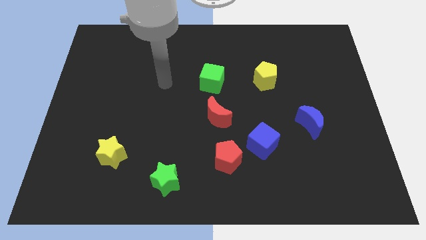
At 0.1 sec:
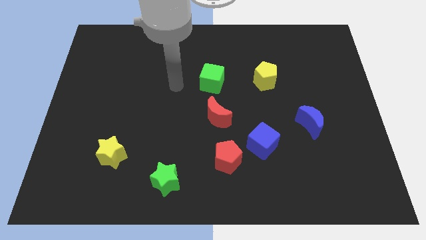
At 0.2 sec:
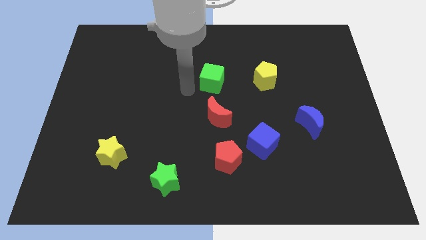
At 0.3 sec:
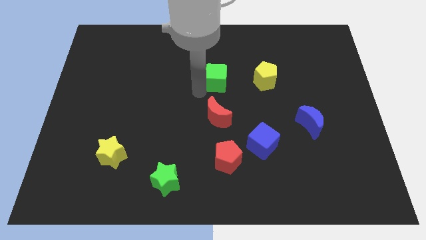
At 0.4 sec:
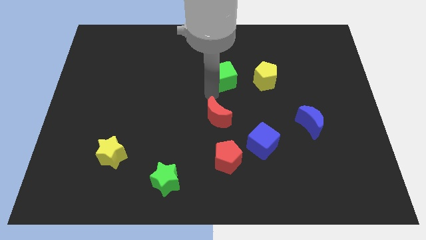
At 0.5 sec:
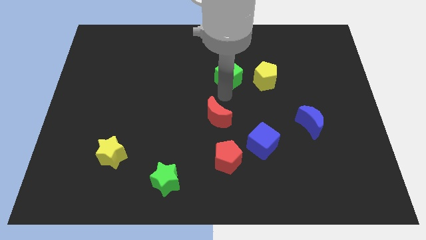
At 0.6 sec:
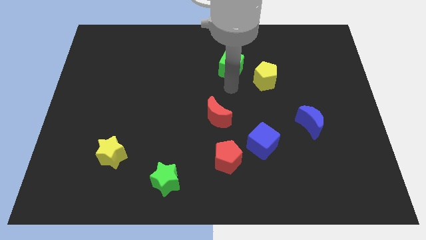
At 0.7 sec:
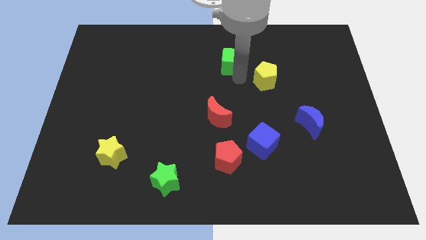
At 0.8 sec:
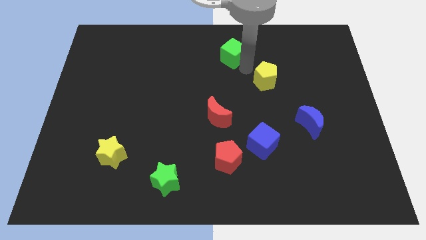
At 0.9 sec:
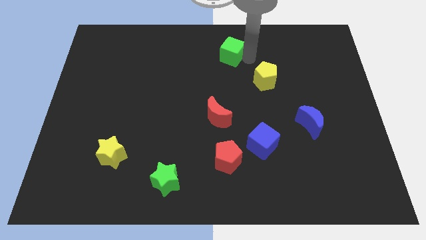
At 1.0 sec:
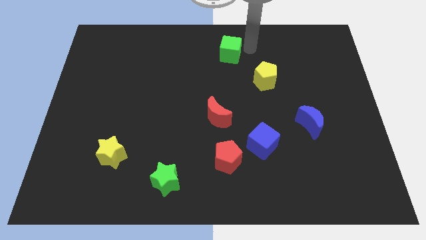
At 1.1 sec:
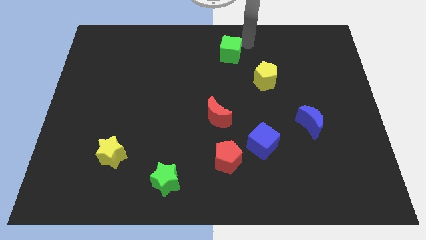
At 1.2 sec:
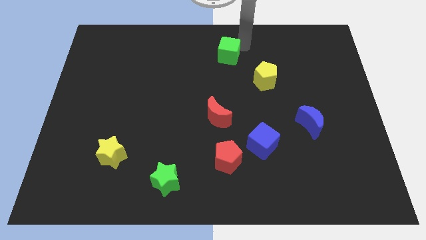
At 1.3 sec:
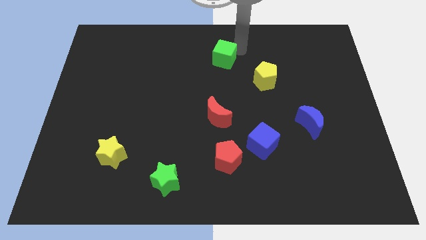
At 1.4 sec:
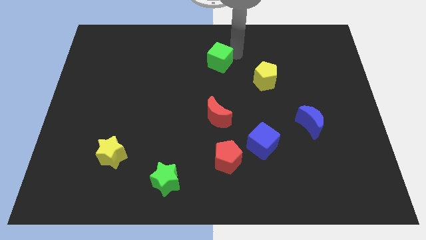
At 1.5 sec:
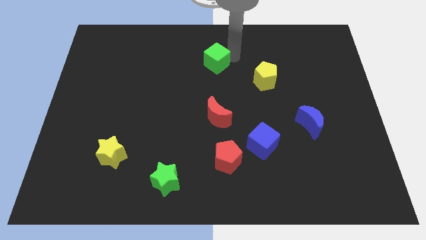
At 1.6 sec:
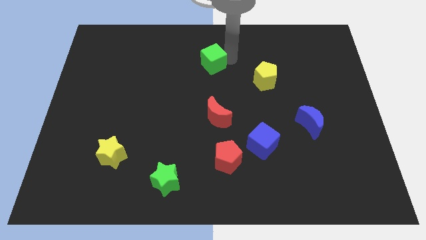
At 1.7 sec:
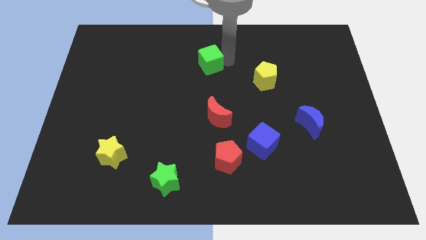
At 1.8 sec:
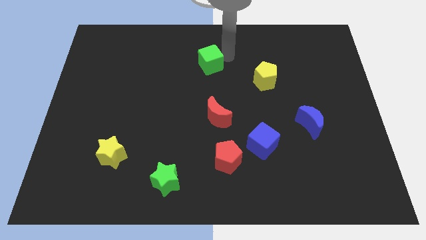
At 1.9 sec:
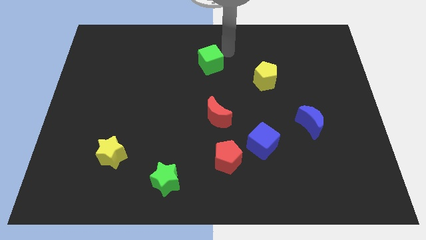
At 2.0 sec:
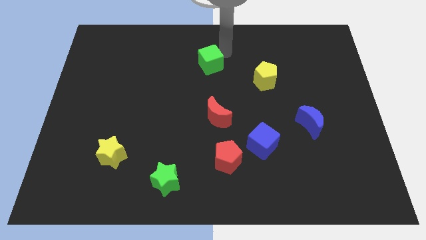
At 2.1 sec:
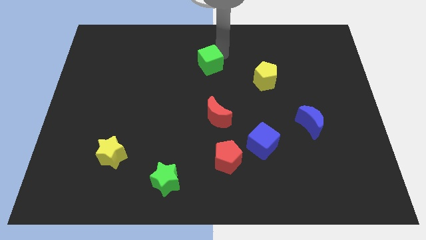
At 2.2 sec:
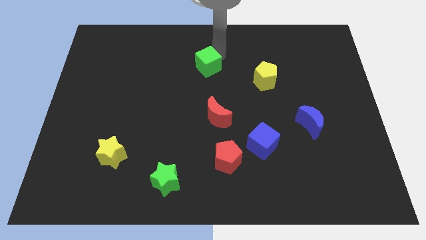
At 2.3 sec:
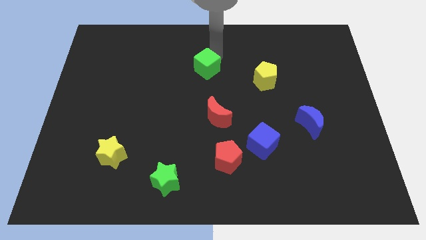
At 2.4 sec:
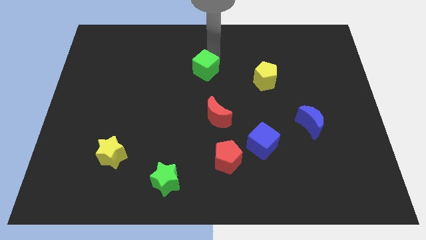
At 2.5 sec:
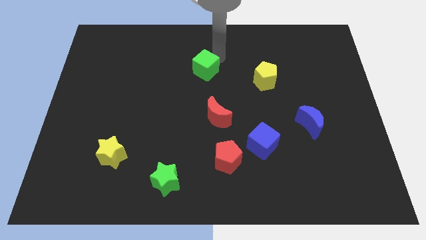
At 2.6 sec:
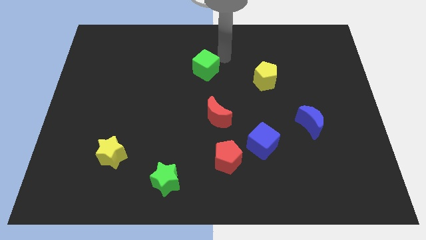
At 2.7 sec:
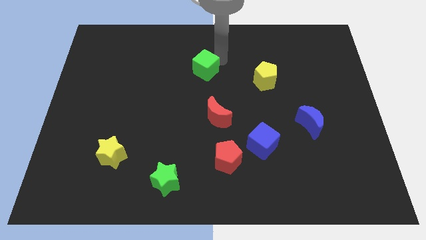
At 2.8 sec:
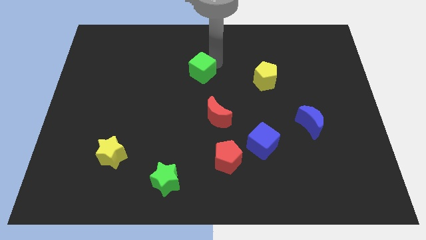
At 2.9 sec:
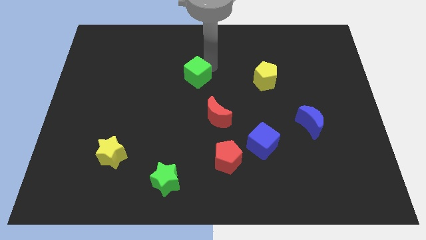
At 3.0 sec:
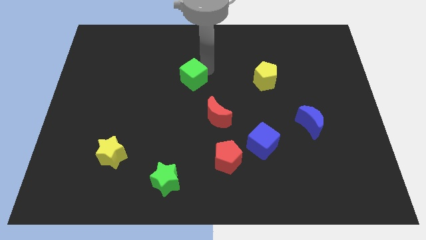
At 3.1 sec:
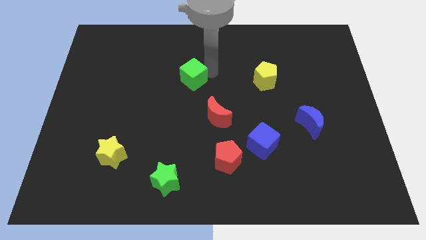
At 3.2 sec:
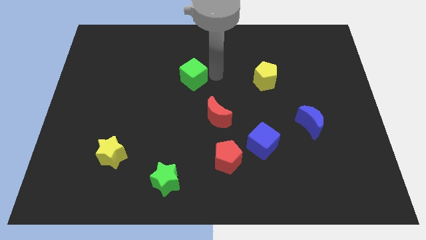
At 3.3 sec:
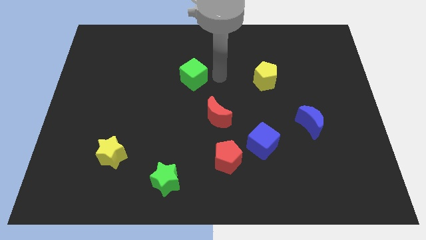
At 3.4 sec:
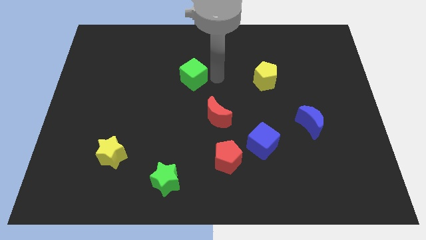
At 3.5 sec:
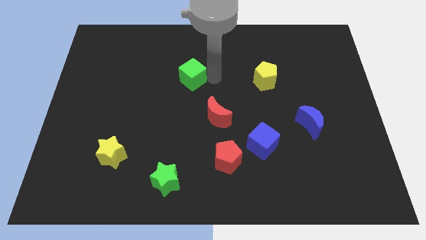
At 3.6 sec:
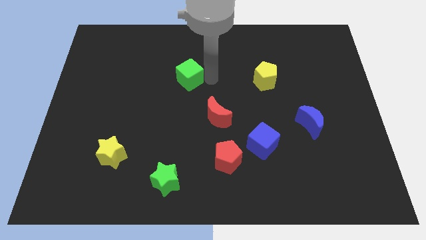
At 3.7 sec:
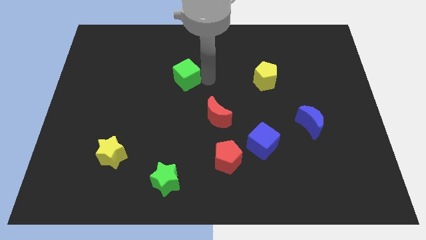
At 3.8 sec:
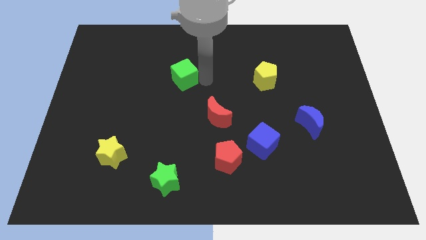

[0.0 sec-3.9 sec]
push the green cube a little left

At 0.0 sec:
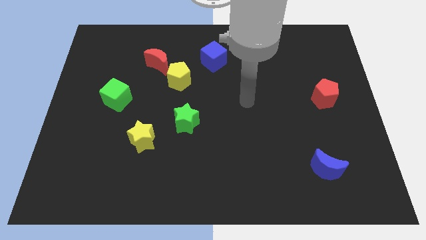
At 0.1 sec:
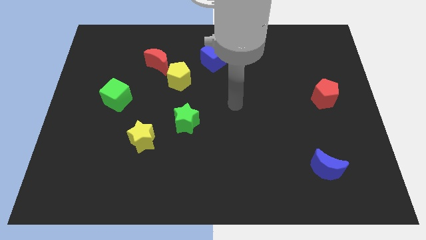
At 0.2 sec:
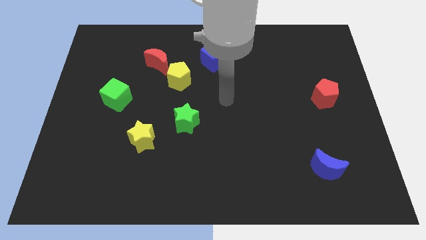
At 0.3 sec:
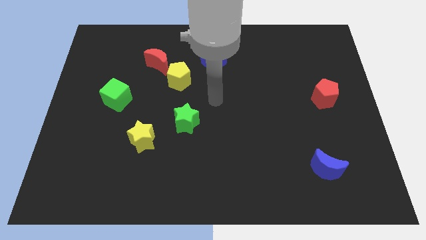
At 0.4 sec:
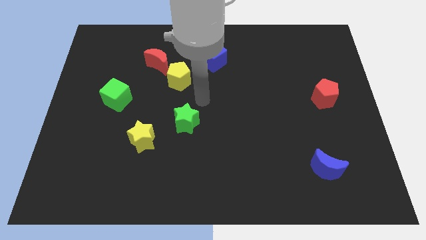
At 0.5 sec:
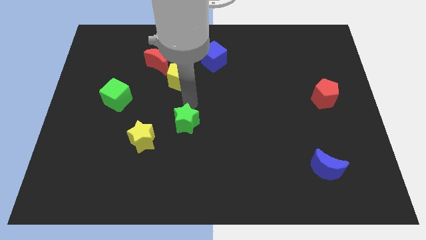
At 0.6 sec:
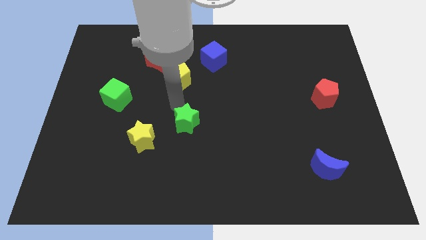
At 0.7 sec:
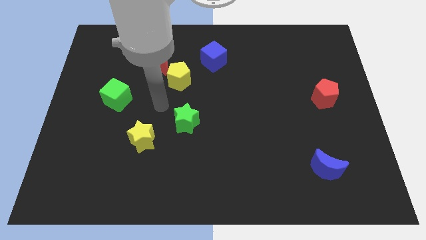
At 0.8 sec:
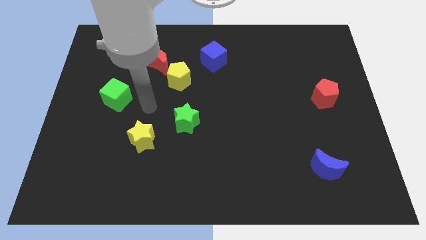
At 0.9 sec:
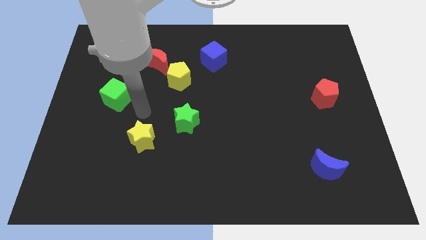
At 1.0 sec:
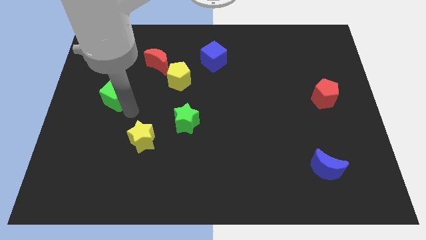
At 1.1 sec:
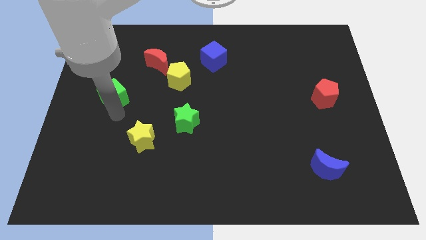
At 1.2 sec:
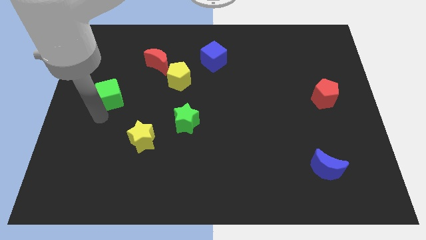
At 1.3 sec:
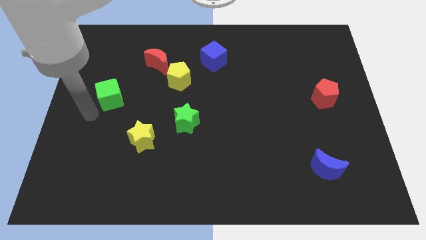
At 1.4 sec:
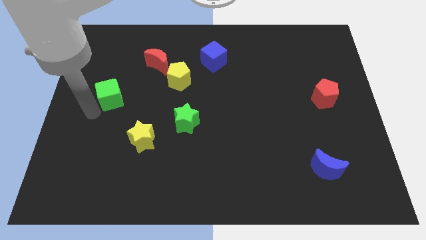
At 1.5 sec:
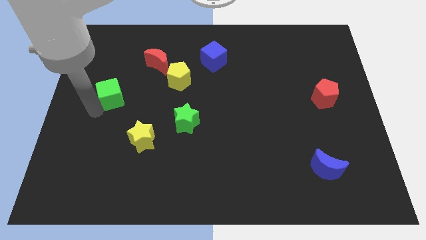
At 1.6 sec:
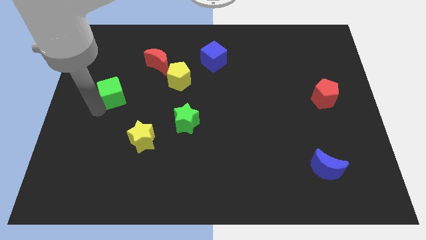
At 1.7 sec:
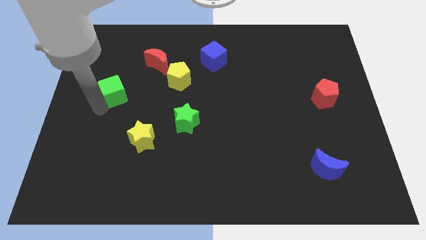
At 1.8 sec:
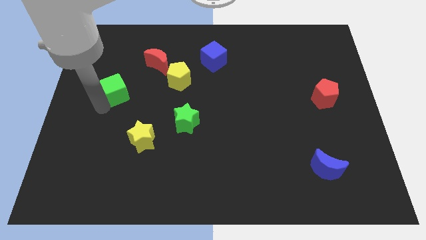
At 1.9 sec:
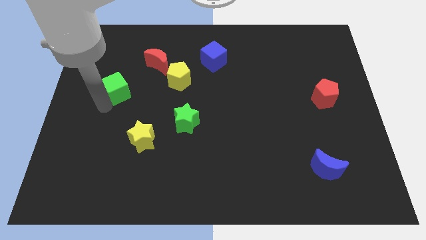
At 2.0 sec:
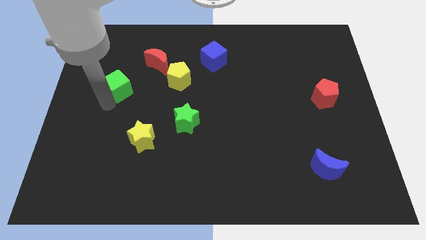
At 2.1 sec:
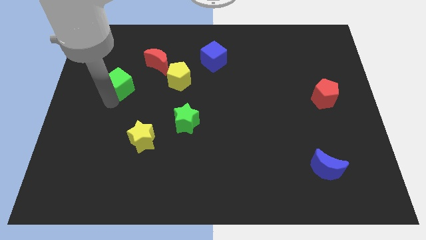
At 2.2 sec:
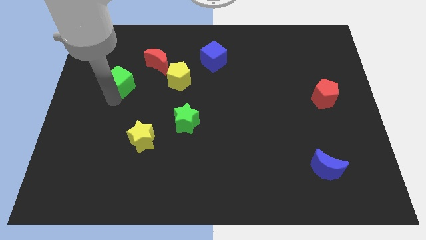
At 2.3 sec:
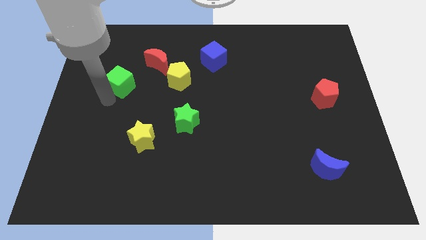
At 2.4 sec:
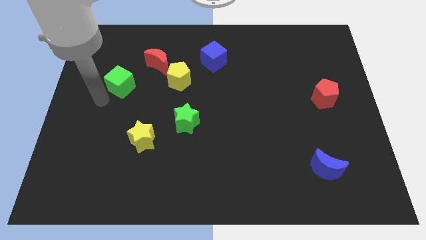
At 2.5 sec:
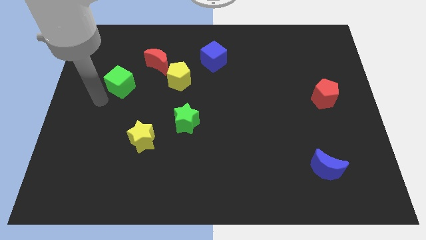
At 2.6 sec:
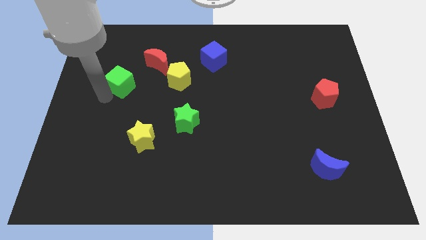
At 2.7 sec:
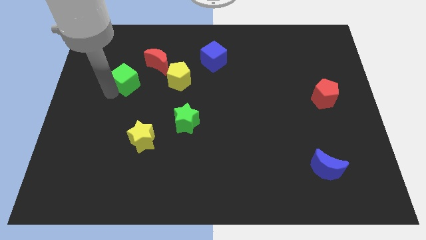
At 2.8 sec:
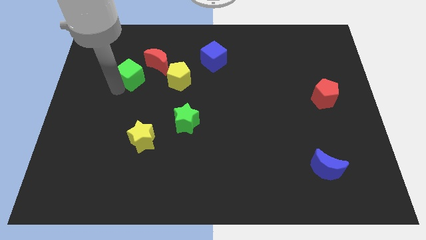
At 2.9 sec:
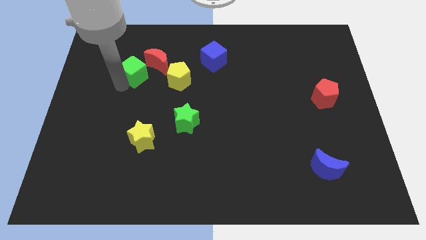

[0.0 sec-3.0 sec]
slightly slide the green cube up and right diagonally

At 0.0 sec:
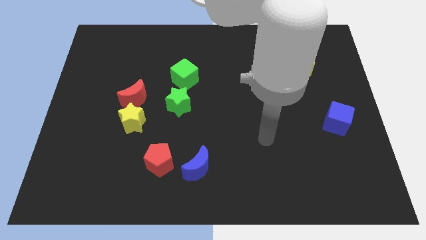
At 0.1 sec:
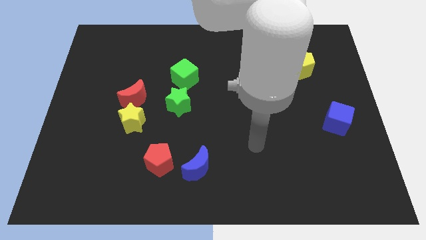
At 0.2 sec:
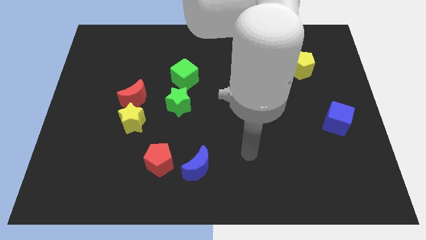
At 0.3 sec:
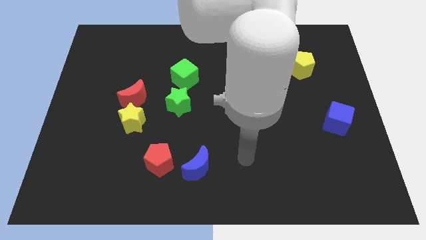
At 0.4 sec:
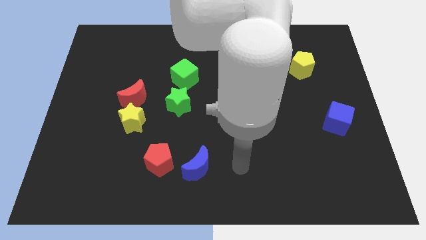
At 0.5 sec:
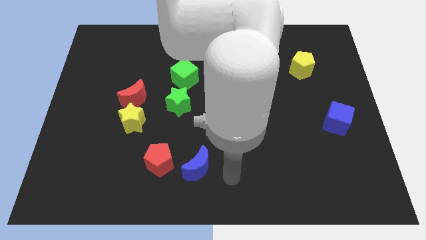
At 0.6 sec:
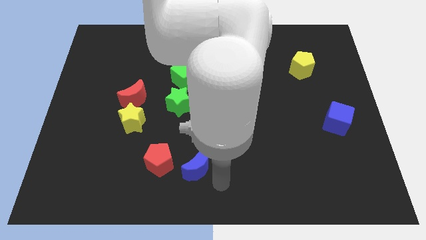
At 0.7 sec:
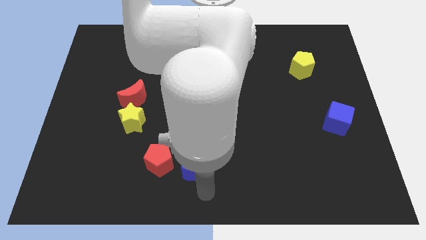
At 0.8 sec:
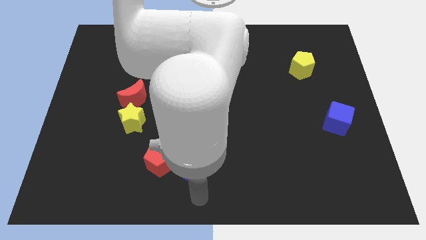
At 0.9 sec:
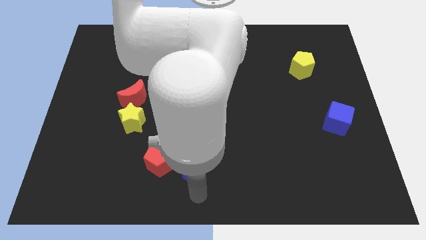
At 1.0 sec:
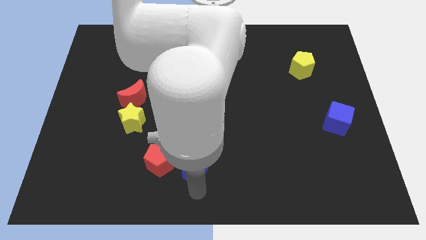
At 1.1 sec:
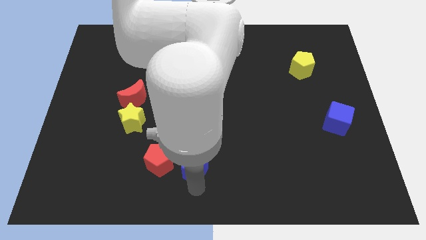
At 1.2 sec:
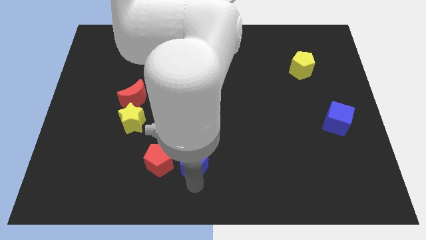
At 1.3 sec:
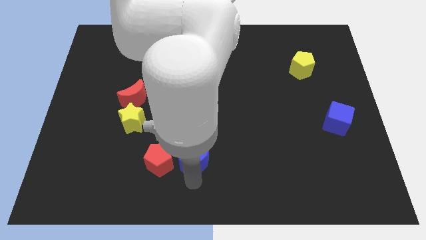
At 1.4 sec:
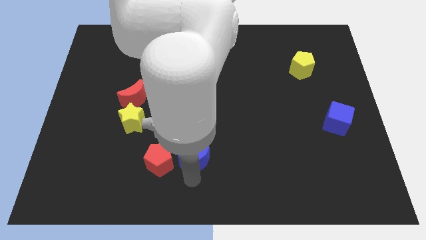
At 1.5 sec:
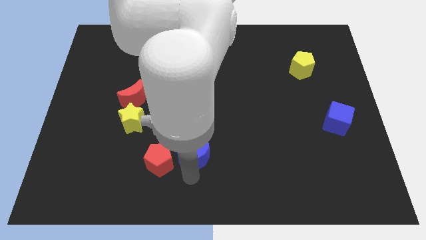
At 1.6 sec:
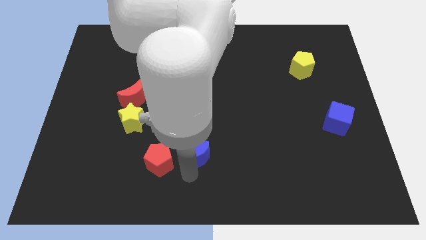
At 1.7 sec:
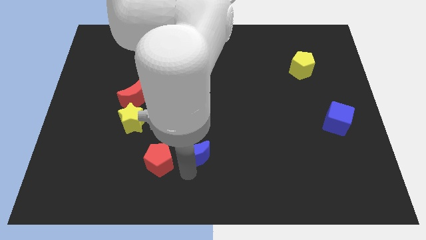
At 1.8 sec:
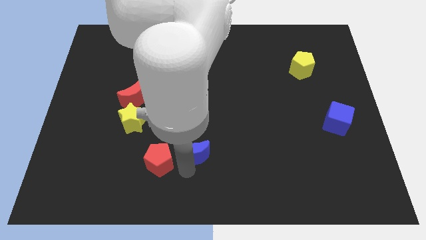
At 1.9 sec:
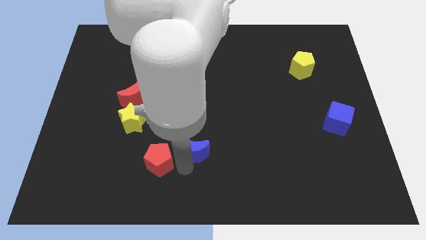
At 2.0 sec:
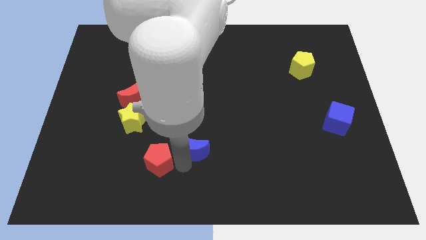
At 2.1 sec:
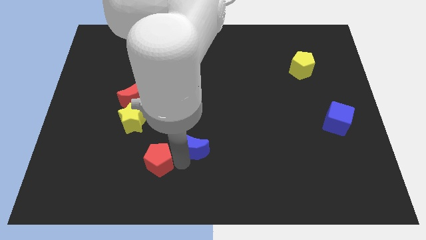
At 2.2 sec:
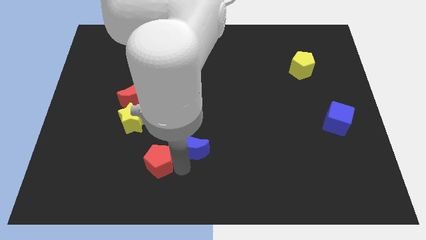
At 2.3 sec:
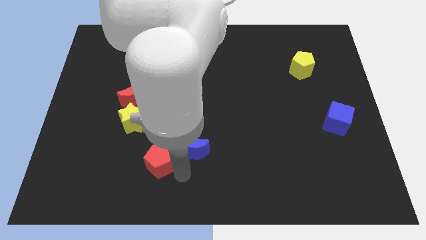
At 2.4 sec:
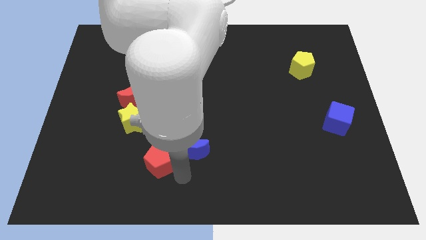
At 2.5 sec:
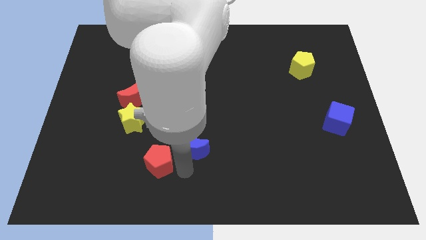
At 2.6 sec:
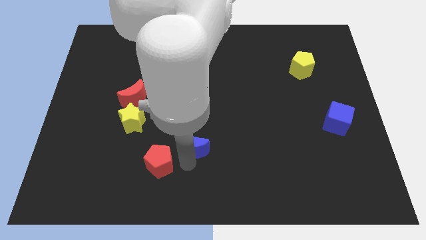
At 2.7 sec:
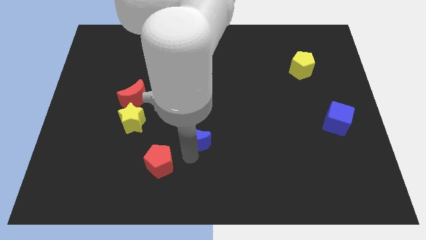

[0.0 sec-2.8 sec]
slightly move the blue moon upwards
